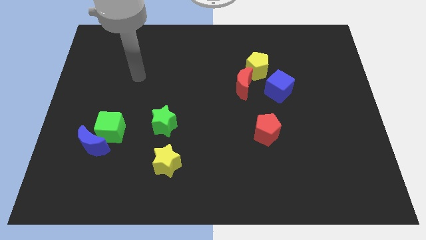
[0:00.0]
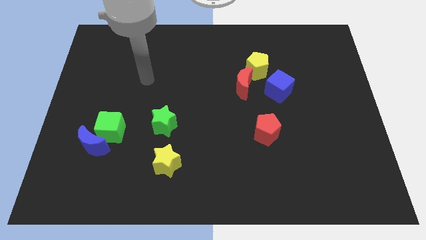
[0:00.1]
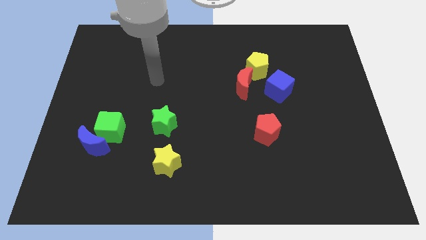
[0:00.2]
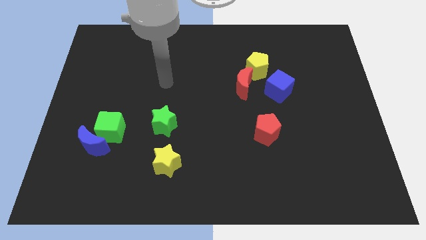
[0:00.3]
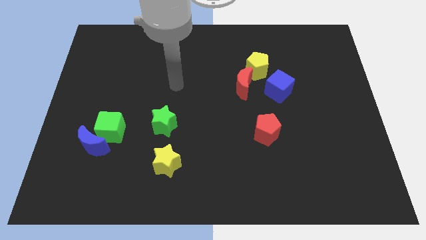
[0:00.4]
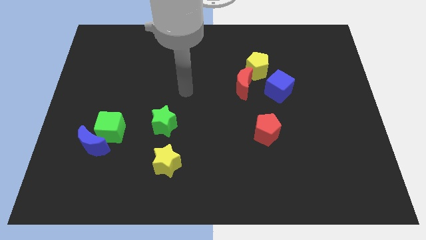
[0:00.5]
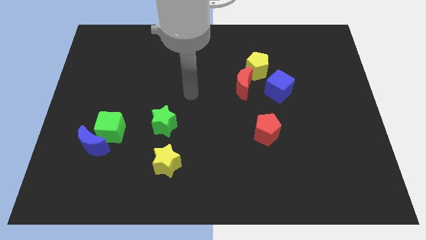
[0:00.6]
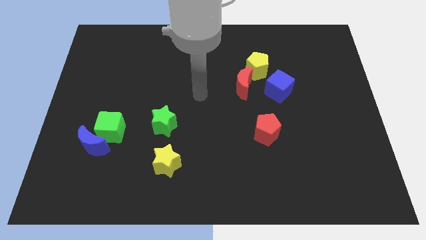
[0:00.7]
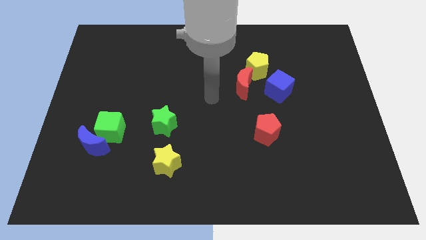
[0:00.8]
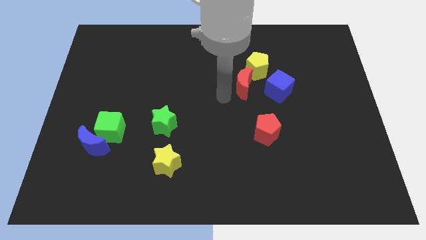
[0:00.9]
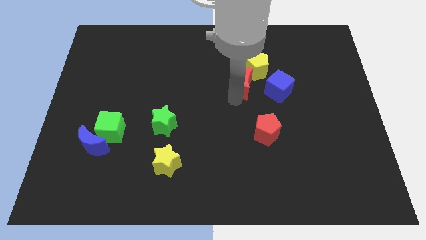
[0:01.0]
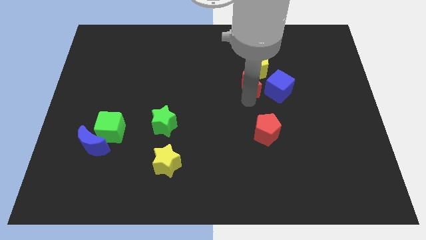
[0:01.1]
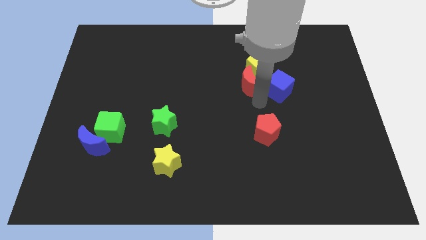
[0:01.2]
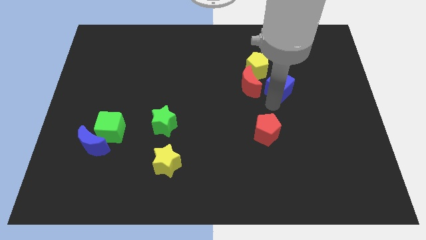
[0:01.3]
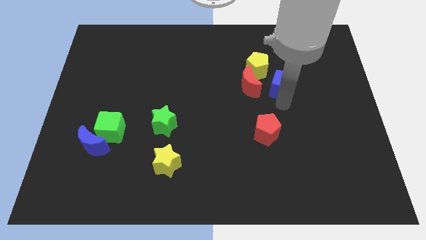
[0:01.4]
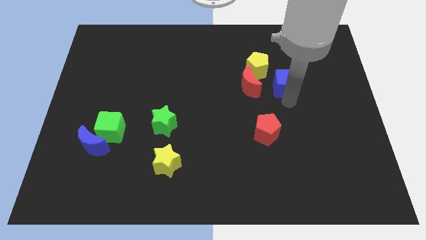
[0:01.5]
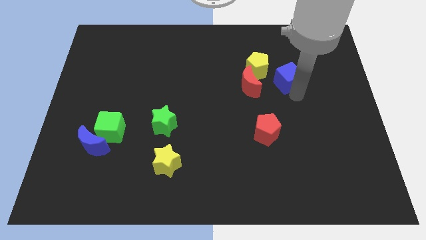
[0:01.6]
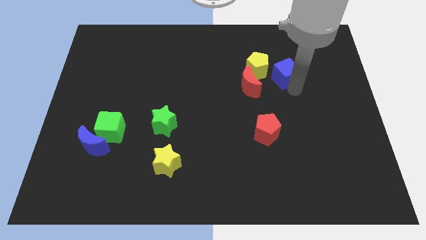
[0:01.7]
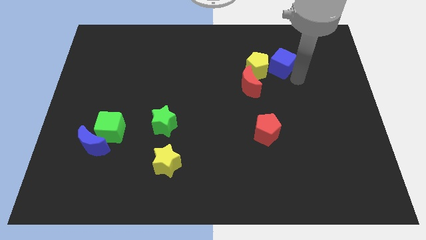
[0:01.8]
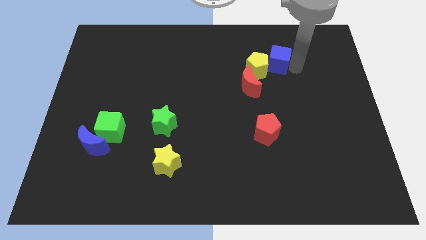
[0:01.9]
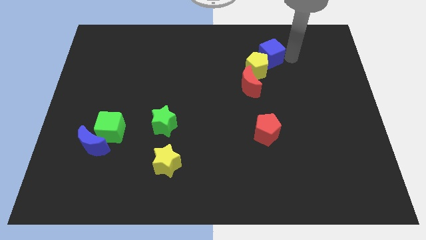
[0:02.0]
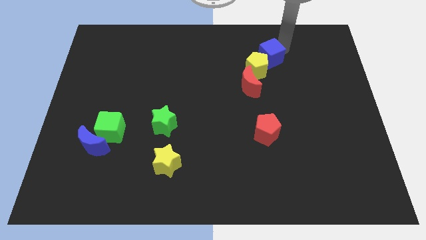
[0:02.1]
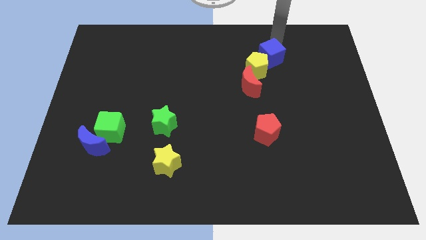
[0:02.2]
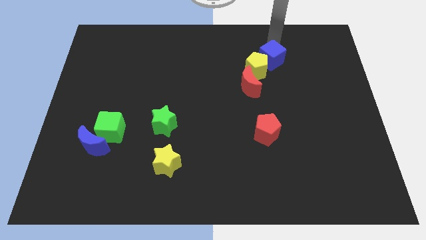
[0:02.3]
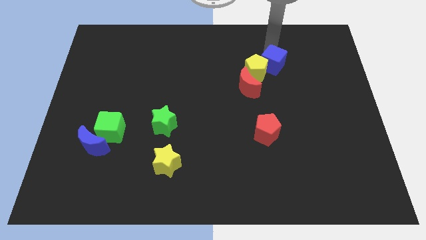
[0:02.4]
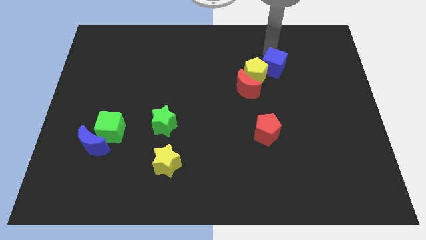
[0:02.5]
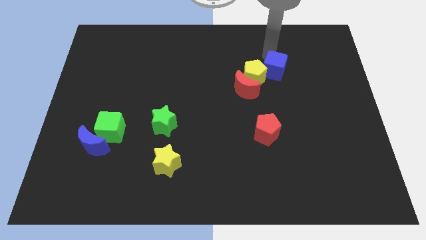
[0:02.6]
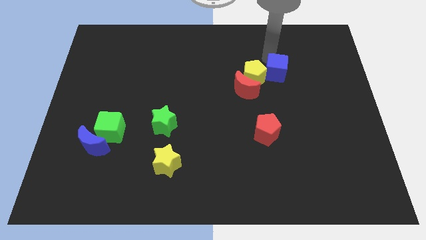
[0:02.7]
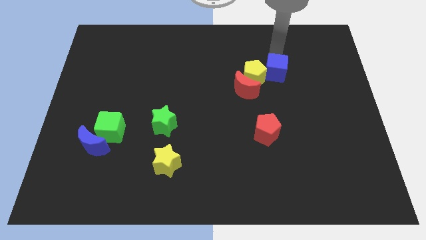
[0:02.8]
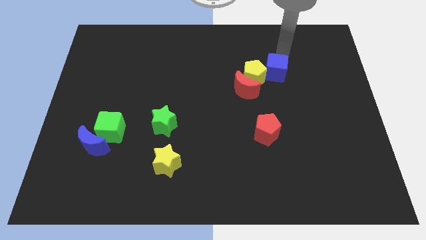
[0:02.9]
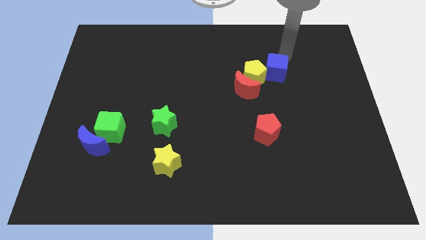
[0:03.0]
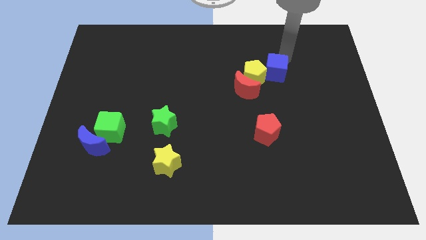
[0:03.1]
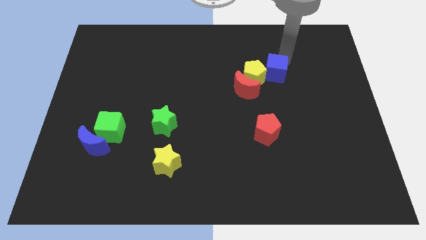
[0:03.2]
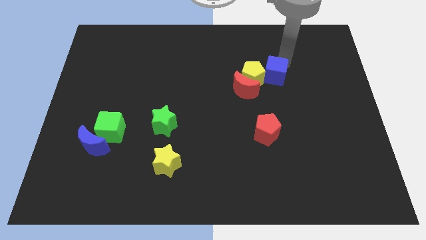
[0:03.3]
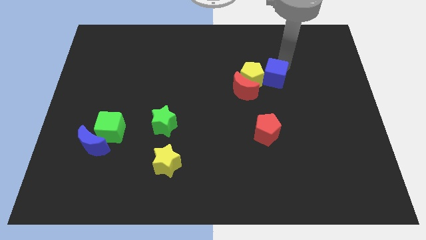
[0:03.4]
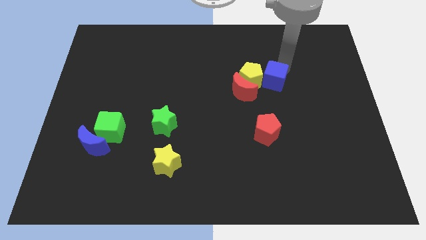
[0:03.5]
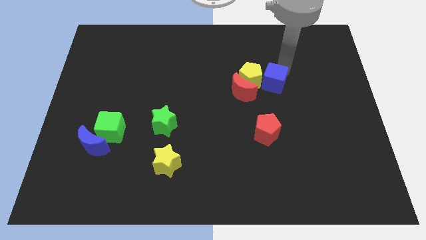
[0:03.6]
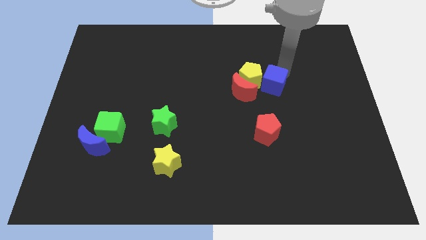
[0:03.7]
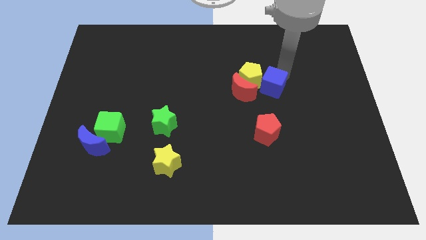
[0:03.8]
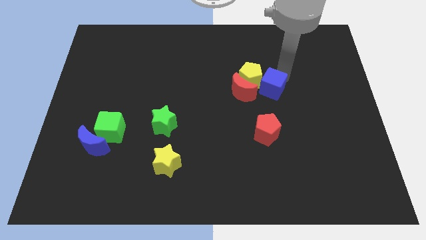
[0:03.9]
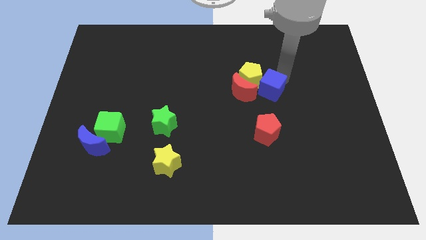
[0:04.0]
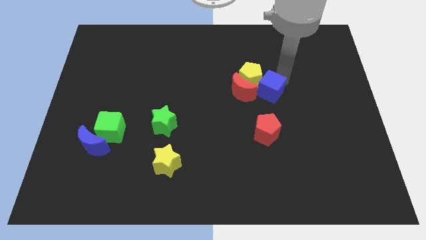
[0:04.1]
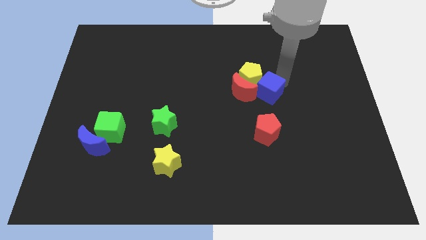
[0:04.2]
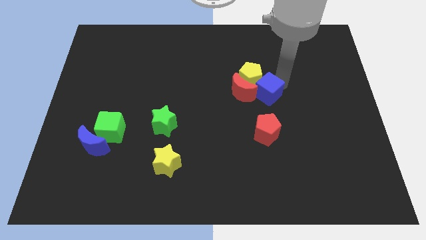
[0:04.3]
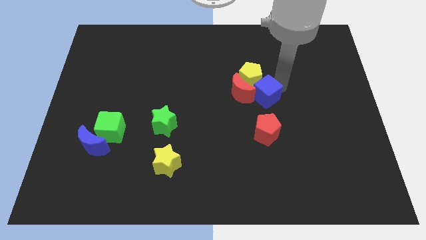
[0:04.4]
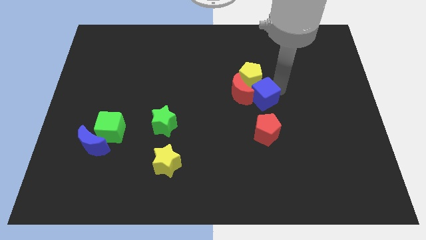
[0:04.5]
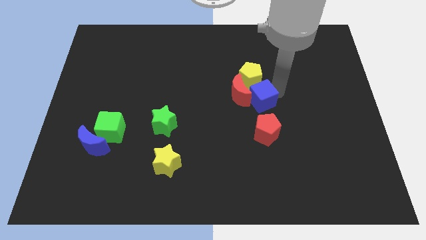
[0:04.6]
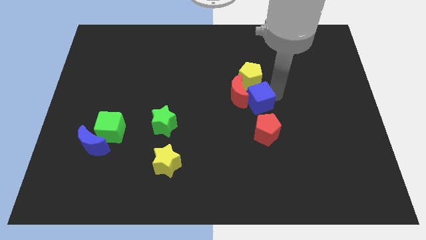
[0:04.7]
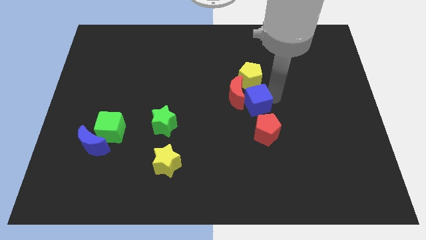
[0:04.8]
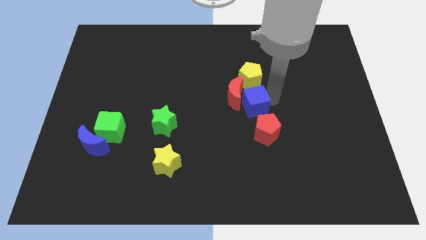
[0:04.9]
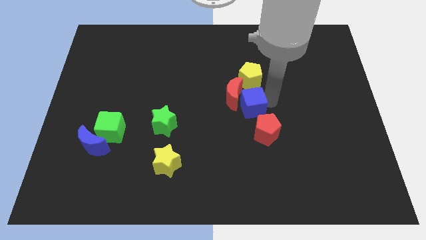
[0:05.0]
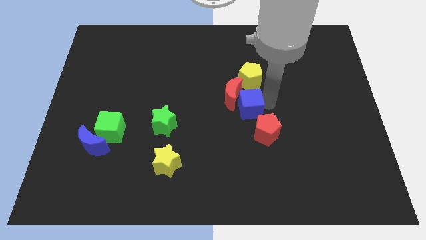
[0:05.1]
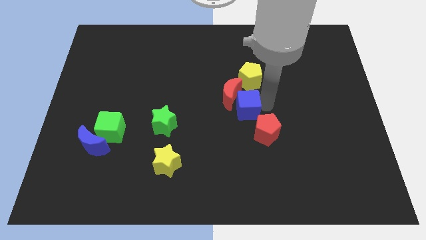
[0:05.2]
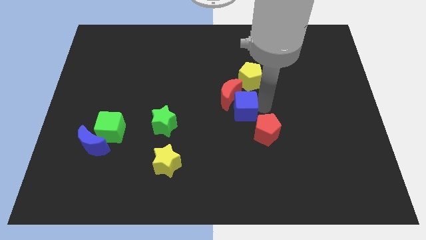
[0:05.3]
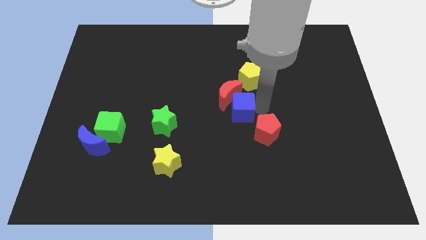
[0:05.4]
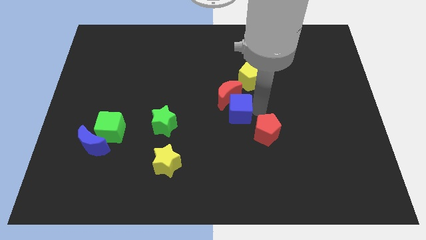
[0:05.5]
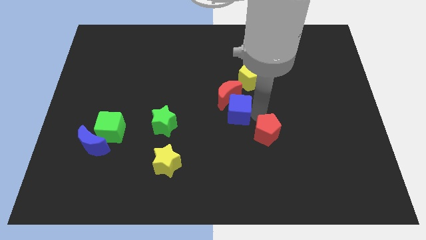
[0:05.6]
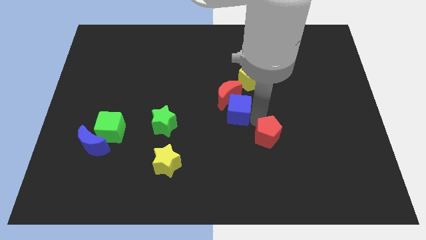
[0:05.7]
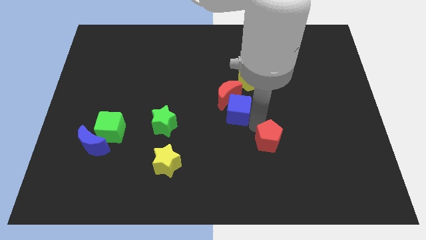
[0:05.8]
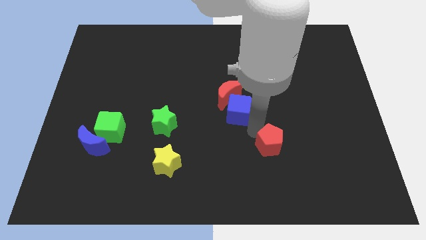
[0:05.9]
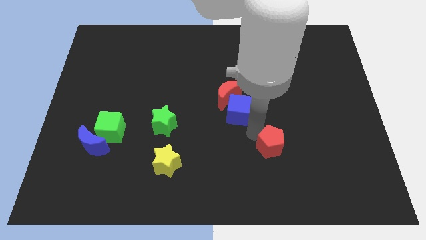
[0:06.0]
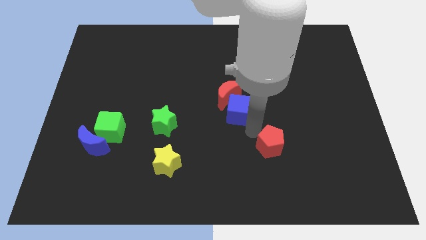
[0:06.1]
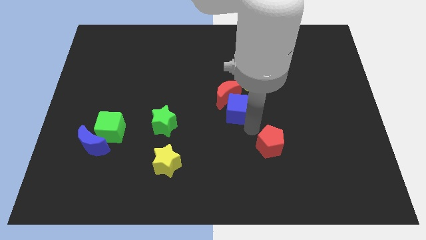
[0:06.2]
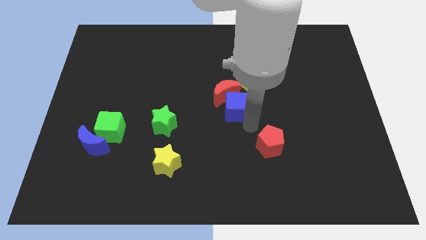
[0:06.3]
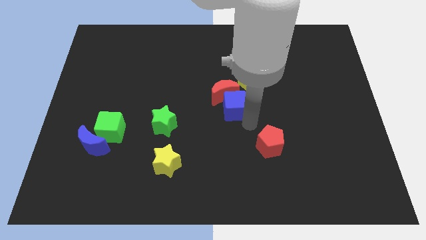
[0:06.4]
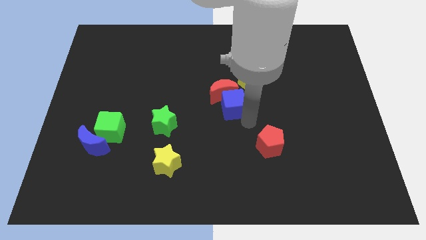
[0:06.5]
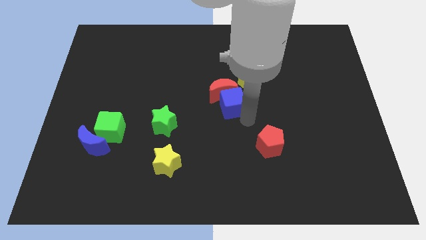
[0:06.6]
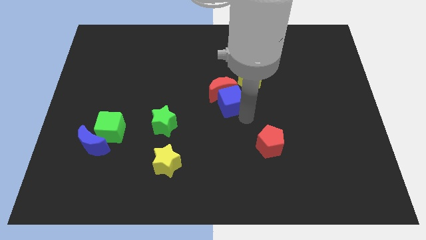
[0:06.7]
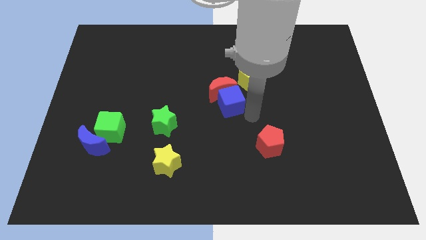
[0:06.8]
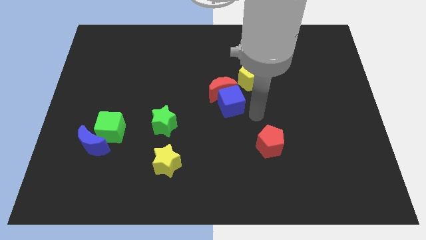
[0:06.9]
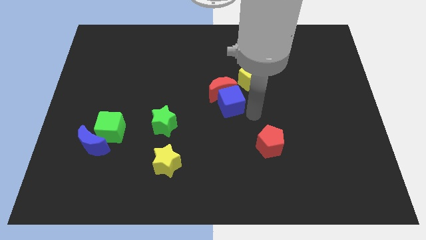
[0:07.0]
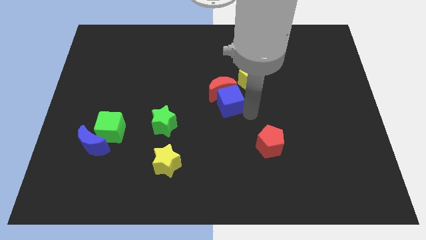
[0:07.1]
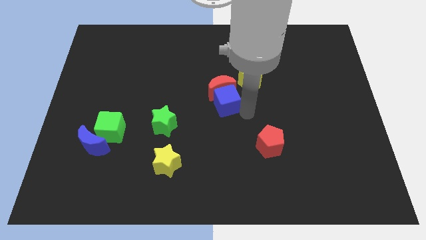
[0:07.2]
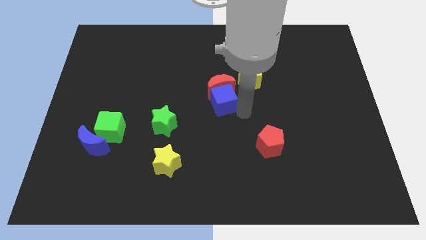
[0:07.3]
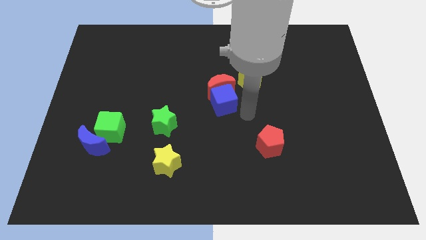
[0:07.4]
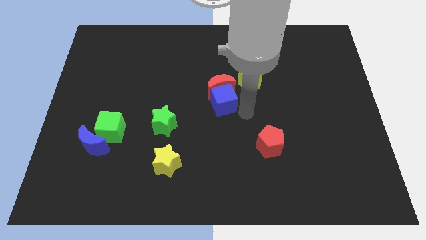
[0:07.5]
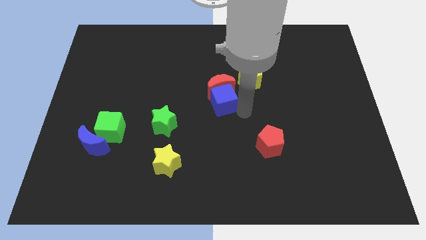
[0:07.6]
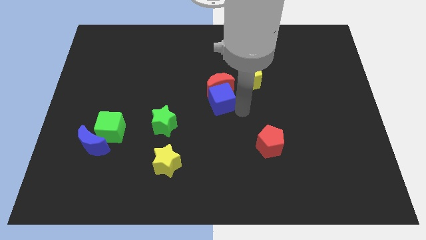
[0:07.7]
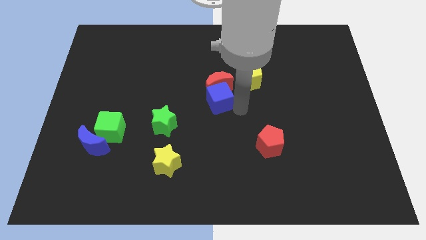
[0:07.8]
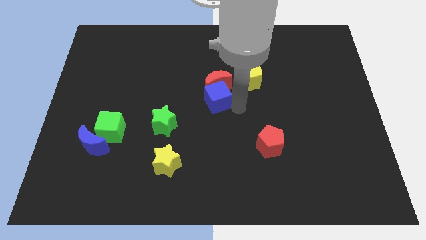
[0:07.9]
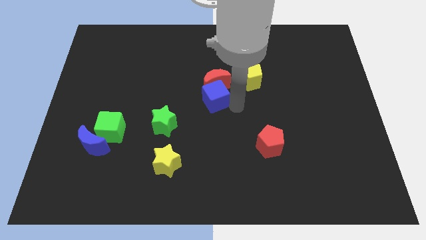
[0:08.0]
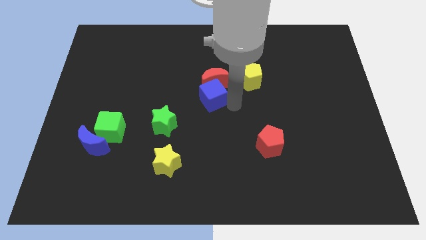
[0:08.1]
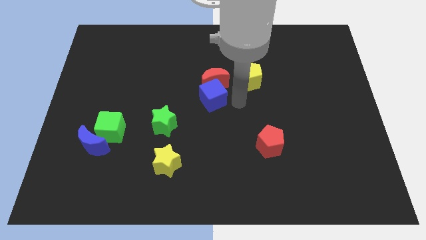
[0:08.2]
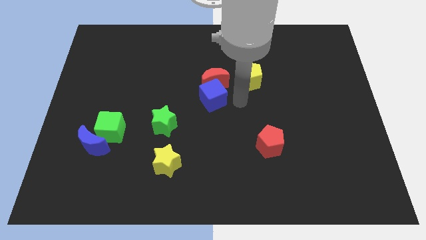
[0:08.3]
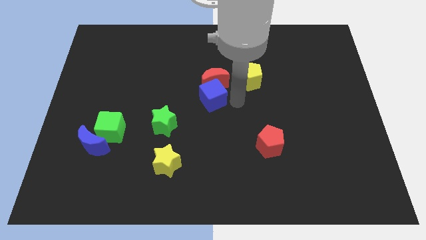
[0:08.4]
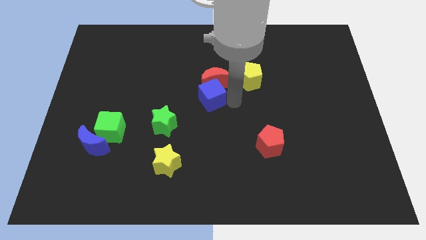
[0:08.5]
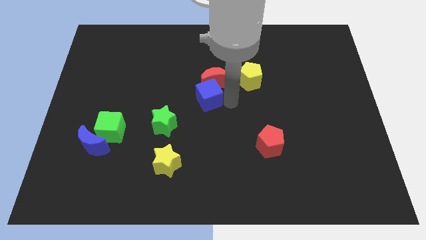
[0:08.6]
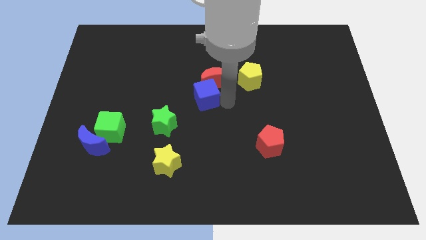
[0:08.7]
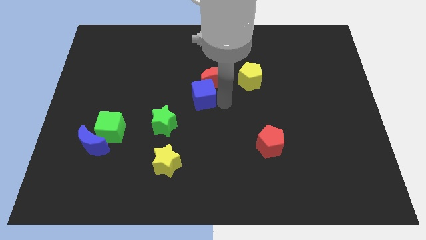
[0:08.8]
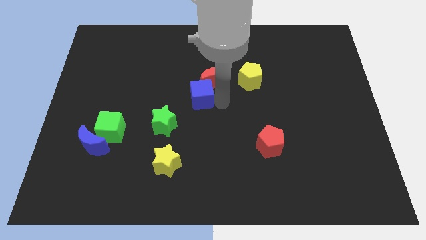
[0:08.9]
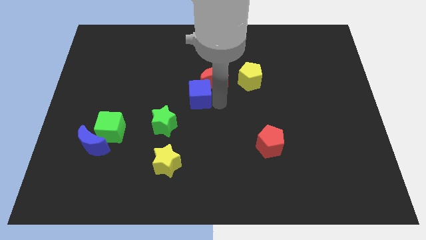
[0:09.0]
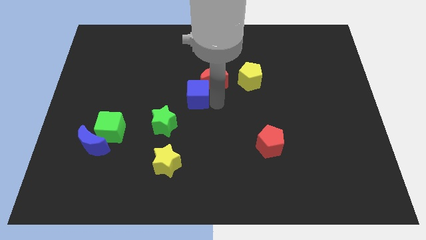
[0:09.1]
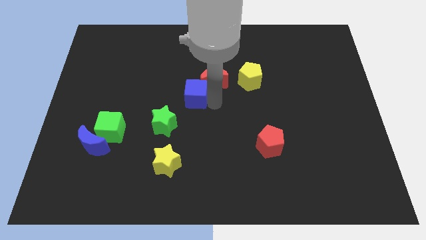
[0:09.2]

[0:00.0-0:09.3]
slide the blue cube left
